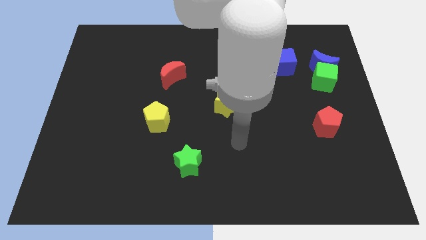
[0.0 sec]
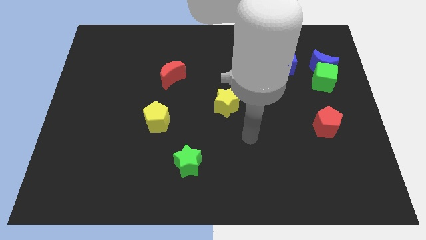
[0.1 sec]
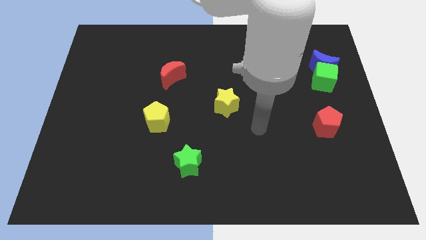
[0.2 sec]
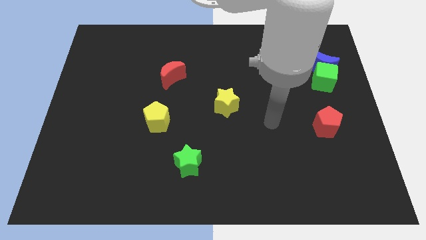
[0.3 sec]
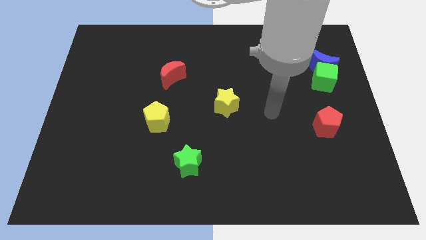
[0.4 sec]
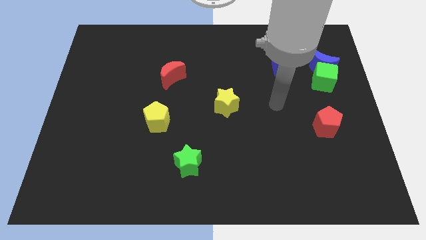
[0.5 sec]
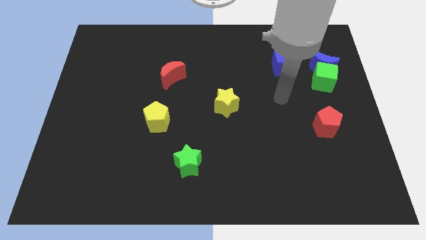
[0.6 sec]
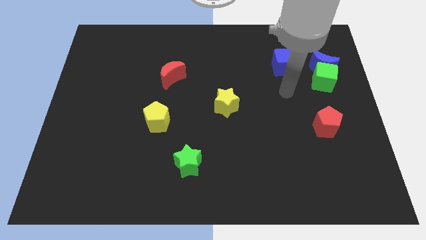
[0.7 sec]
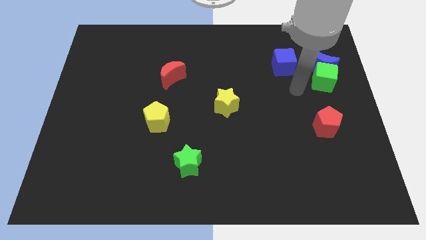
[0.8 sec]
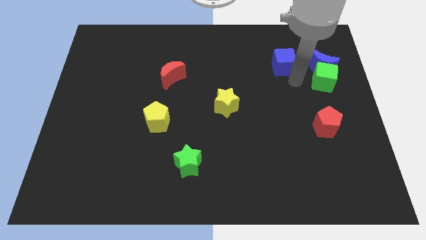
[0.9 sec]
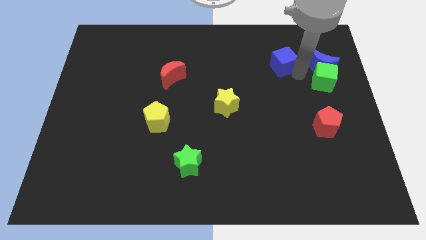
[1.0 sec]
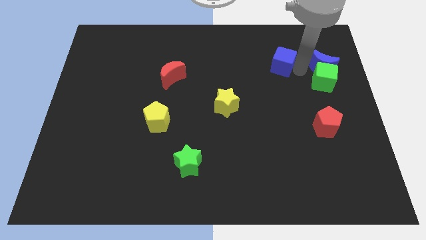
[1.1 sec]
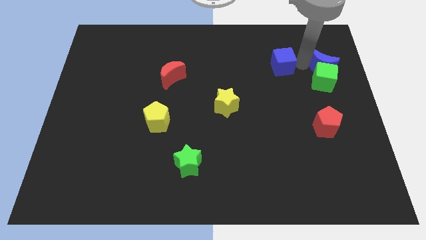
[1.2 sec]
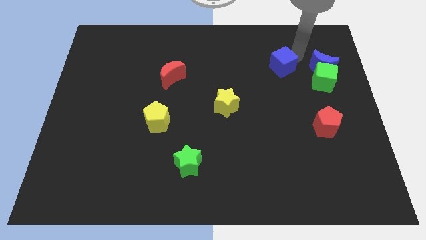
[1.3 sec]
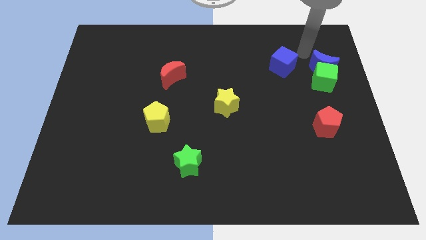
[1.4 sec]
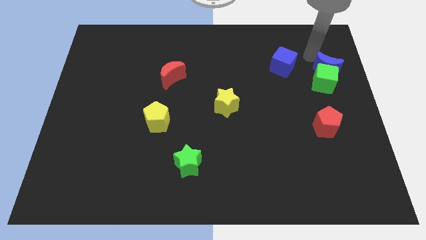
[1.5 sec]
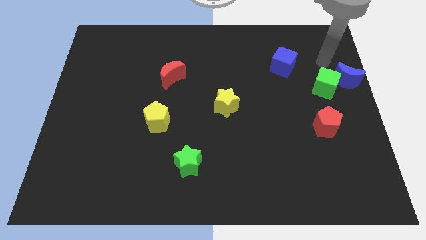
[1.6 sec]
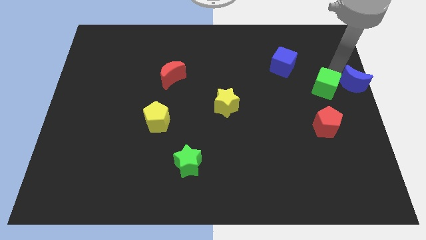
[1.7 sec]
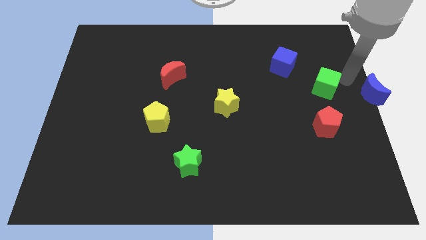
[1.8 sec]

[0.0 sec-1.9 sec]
separate the green cube from the blue moon

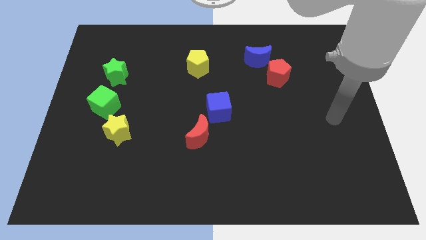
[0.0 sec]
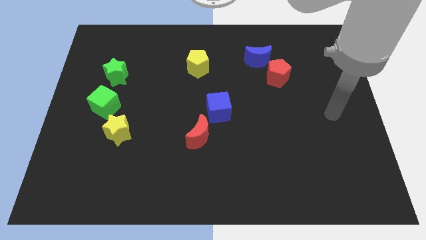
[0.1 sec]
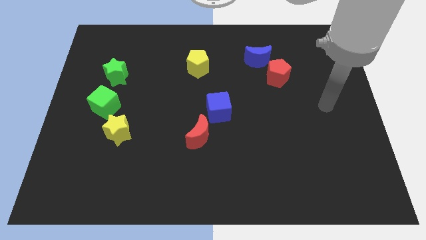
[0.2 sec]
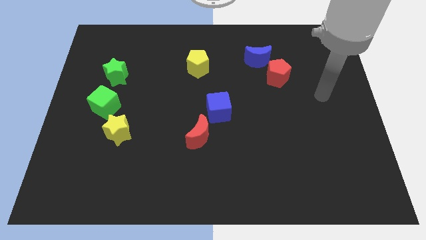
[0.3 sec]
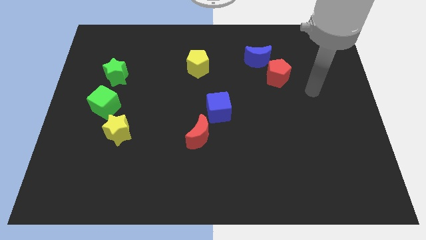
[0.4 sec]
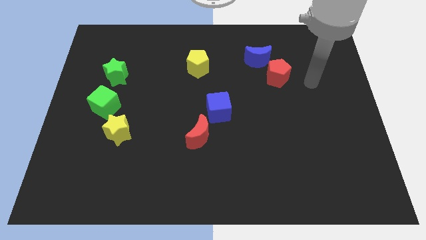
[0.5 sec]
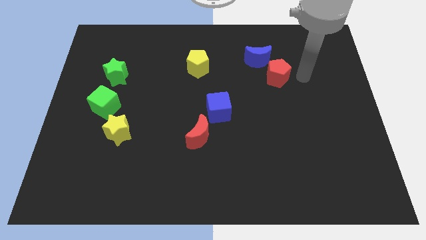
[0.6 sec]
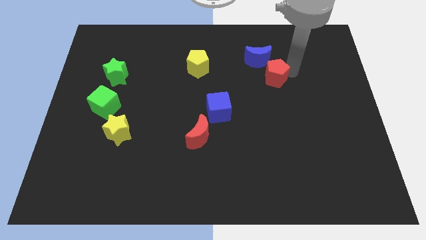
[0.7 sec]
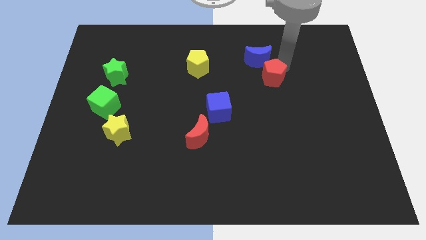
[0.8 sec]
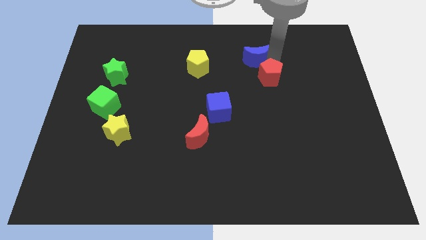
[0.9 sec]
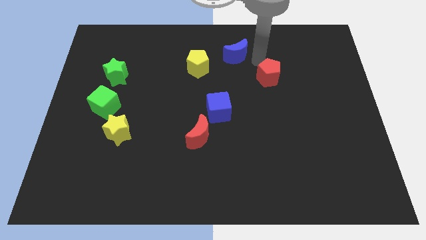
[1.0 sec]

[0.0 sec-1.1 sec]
move the red pentagon away from the blue moon

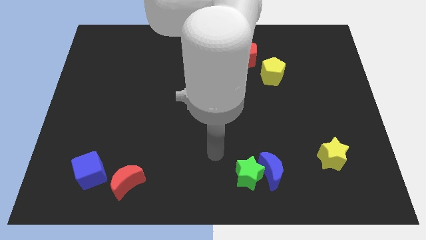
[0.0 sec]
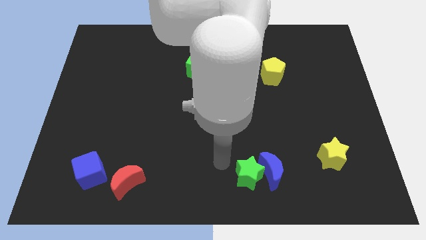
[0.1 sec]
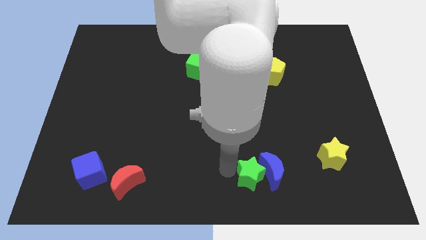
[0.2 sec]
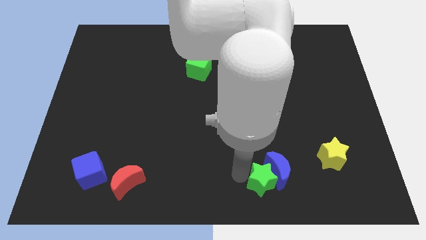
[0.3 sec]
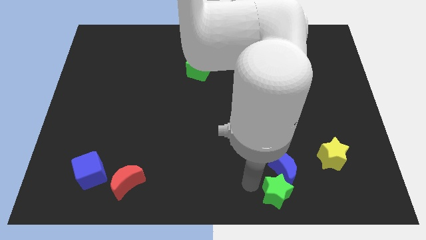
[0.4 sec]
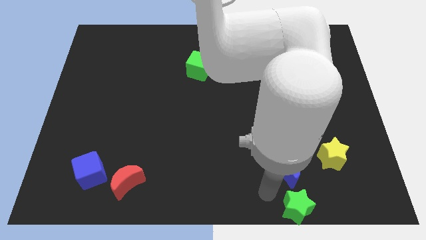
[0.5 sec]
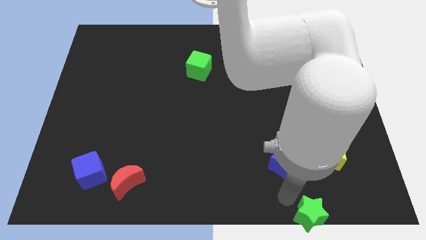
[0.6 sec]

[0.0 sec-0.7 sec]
separate the blue moon from the green star

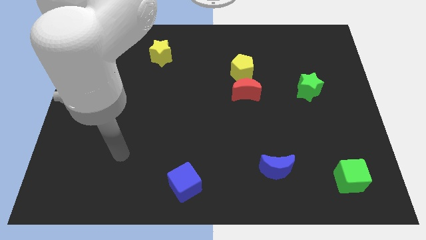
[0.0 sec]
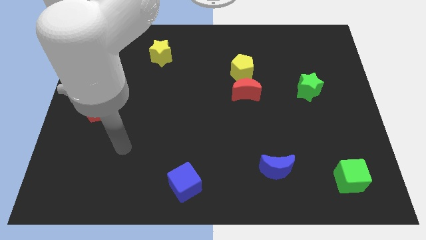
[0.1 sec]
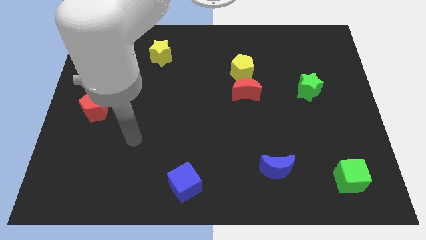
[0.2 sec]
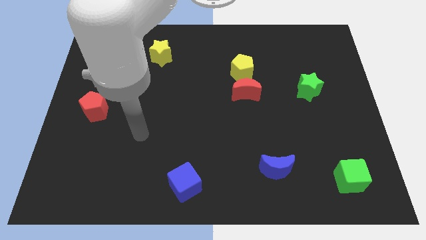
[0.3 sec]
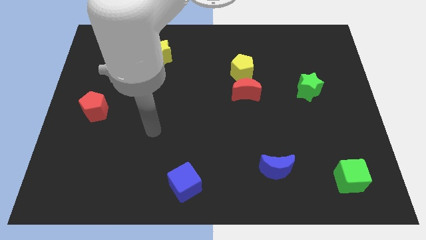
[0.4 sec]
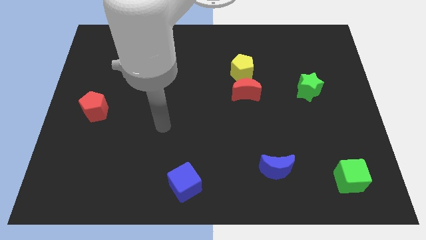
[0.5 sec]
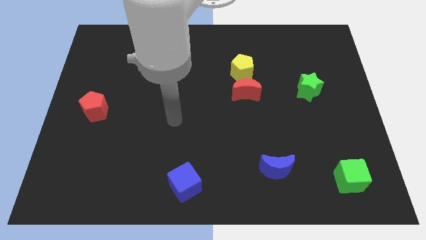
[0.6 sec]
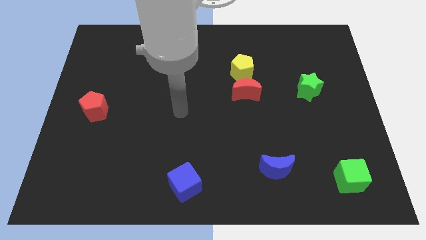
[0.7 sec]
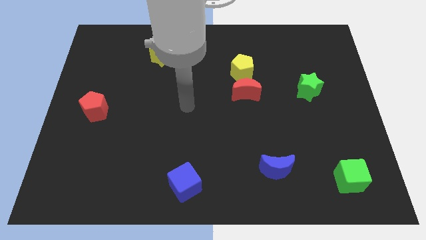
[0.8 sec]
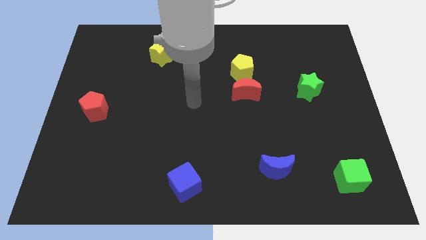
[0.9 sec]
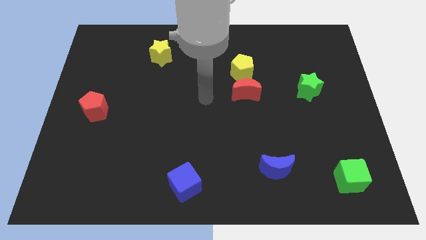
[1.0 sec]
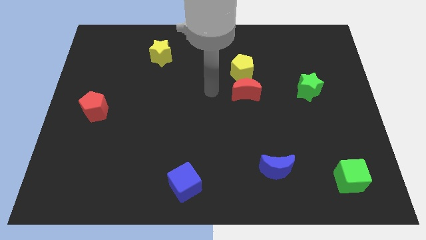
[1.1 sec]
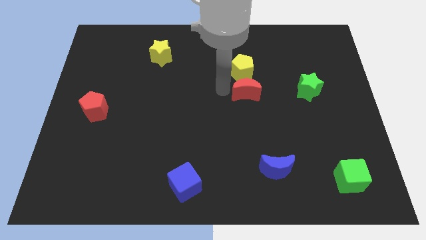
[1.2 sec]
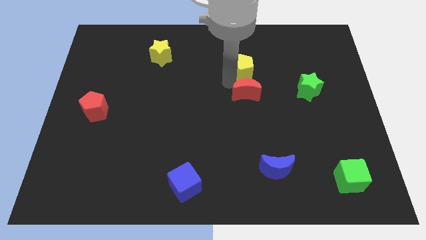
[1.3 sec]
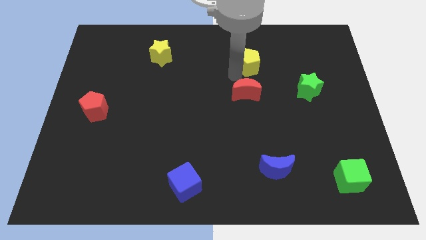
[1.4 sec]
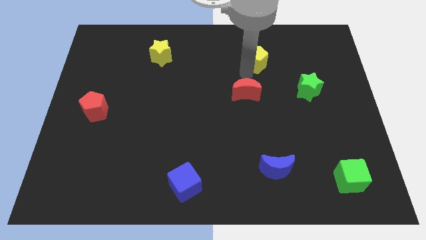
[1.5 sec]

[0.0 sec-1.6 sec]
move the red moon away from the yellow pentagon

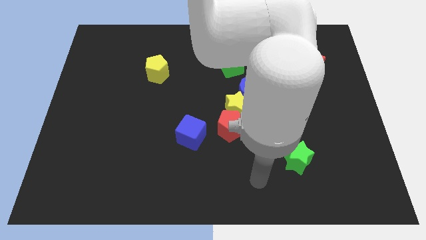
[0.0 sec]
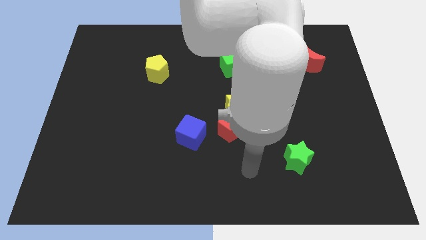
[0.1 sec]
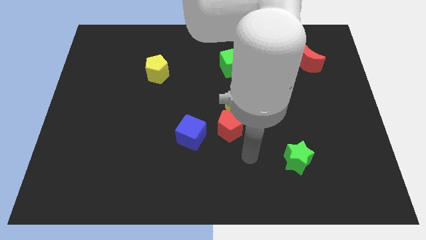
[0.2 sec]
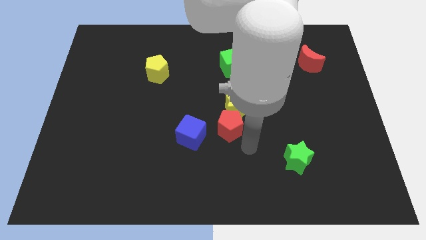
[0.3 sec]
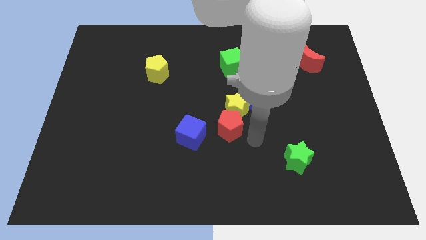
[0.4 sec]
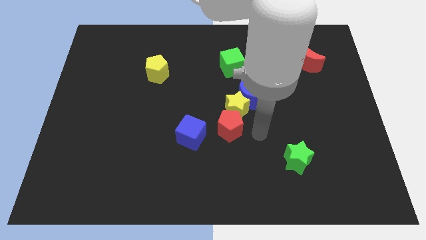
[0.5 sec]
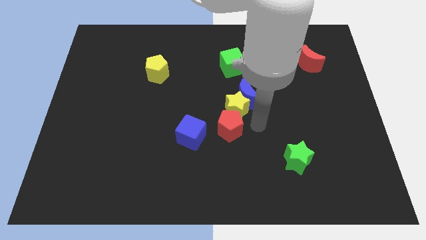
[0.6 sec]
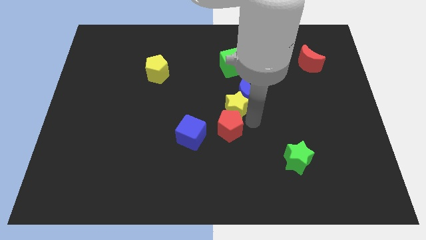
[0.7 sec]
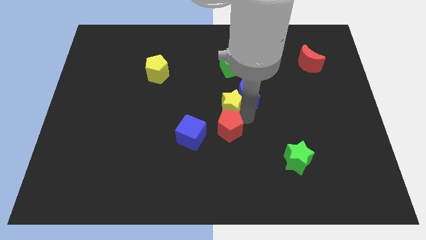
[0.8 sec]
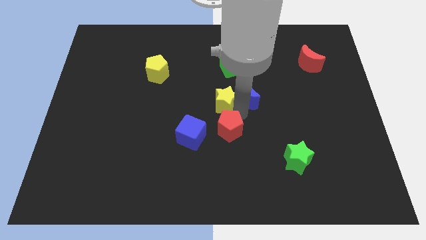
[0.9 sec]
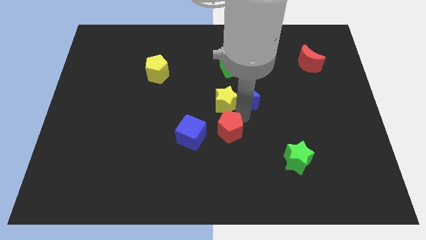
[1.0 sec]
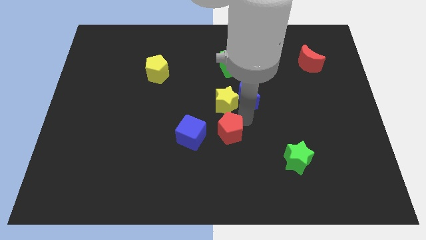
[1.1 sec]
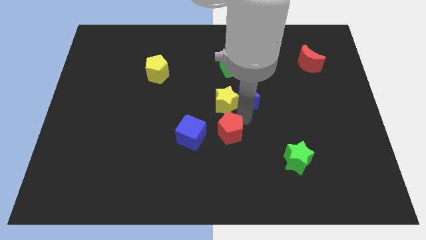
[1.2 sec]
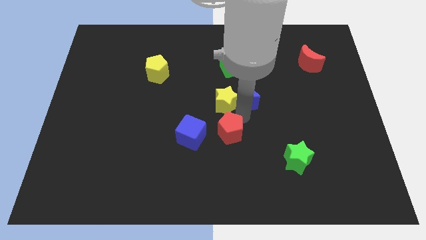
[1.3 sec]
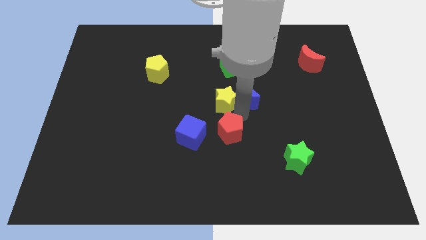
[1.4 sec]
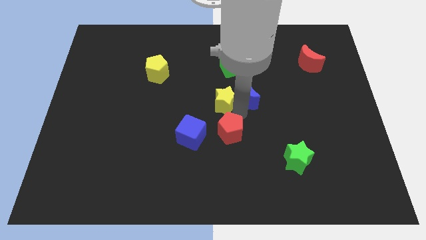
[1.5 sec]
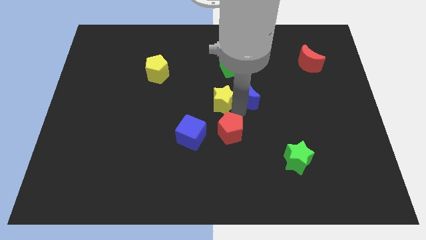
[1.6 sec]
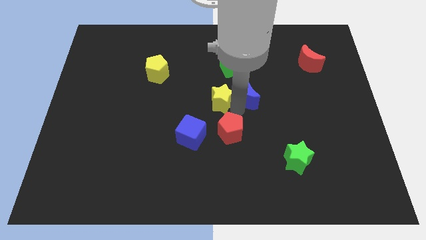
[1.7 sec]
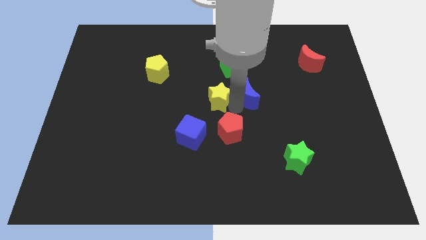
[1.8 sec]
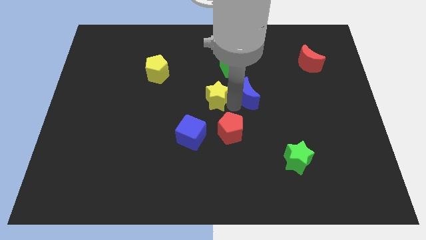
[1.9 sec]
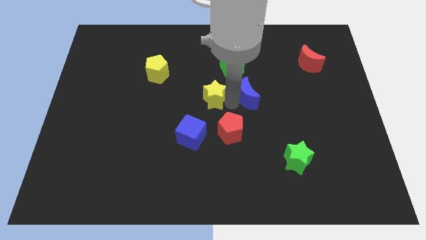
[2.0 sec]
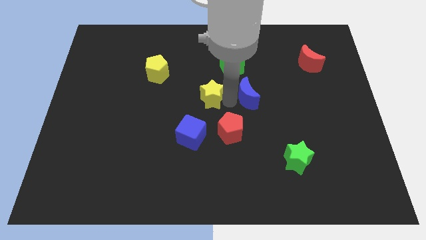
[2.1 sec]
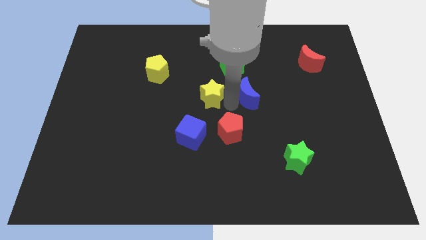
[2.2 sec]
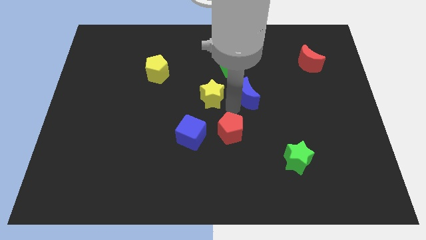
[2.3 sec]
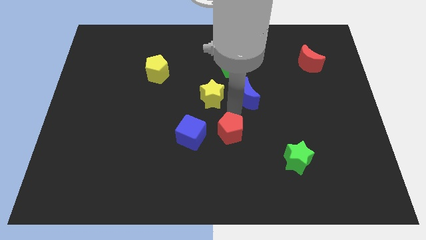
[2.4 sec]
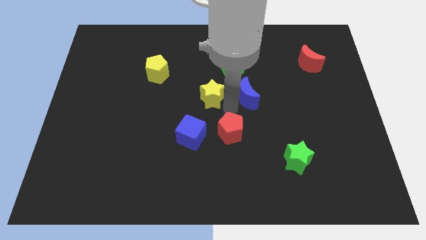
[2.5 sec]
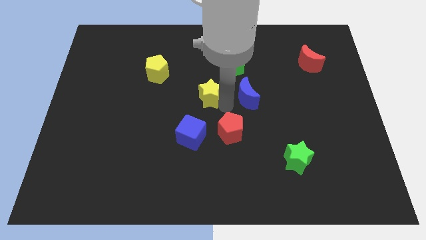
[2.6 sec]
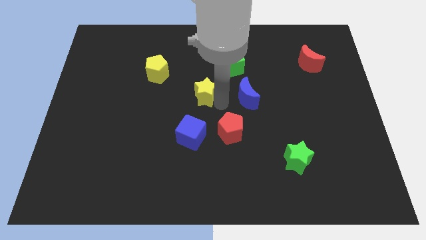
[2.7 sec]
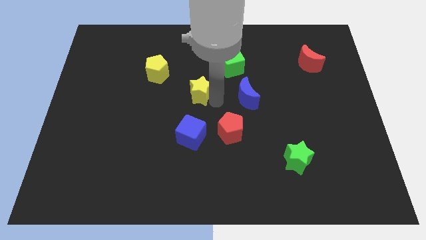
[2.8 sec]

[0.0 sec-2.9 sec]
pull the yellow star apart from the blue moon and red pentagon

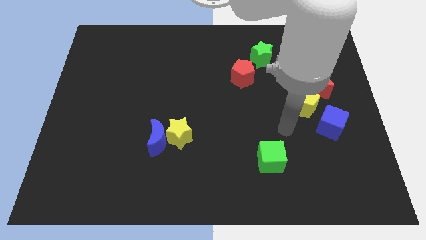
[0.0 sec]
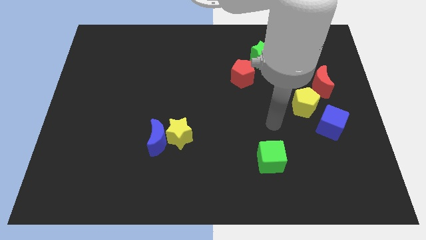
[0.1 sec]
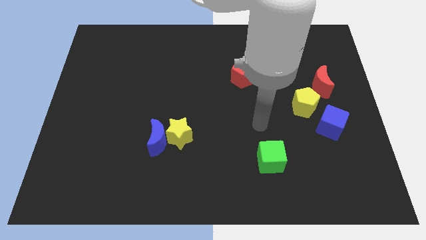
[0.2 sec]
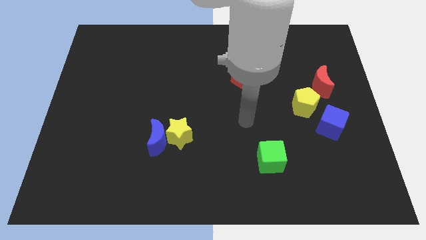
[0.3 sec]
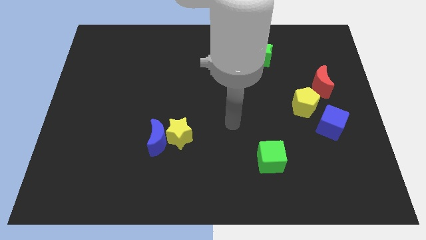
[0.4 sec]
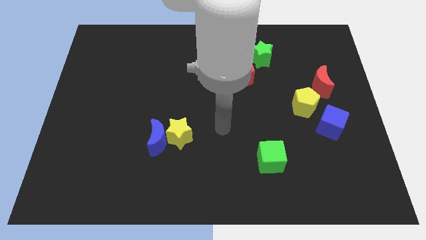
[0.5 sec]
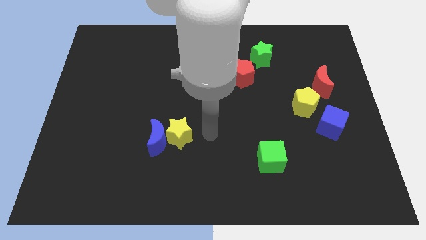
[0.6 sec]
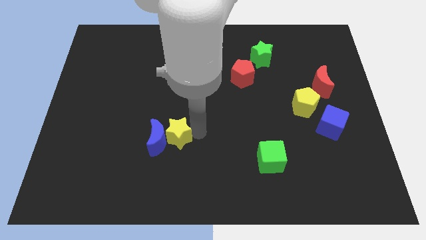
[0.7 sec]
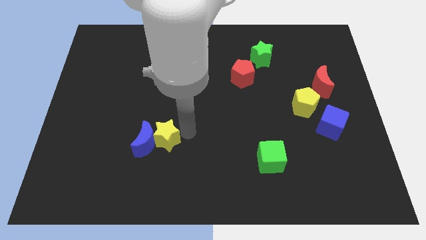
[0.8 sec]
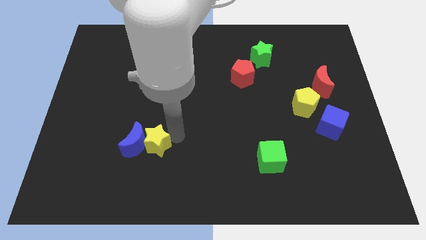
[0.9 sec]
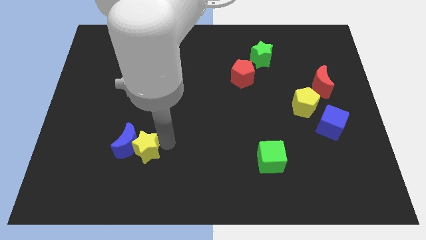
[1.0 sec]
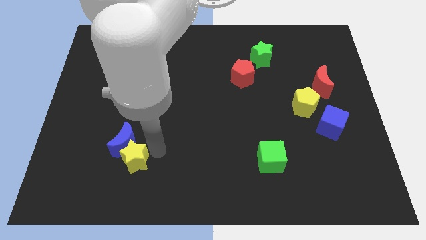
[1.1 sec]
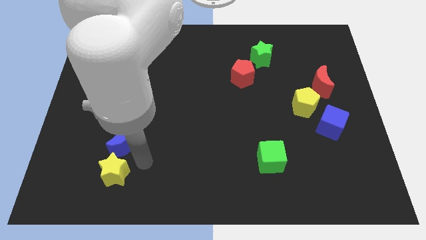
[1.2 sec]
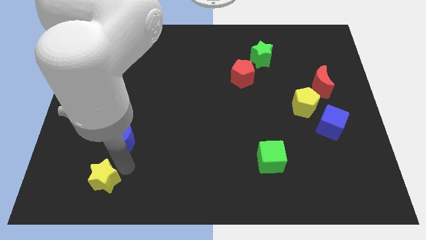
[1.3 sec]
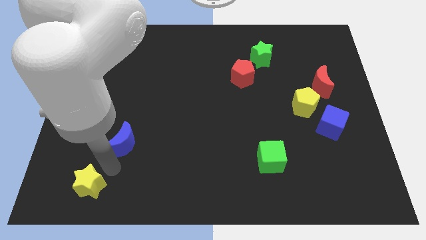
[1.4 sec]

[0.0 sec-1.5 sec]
pull the blue moon apart from the yellow star
